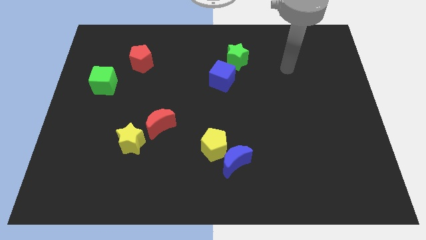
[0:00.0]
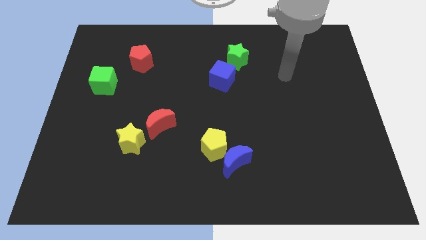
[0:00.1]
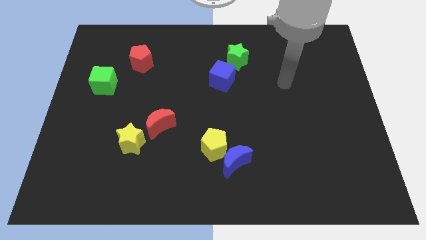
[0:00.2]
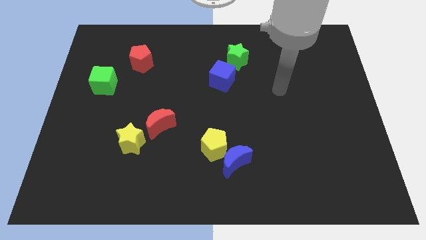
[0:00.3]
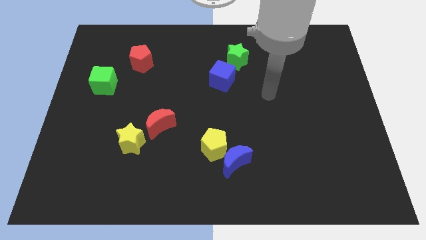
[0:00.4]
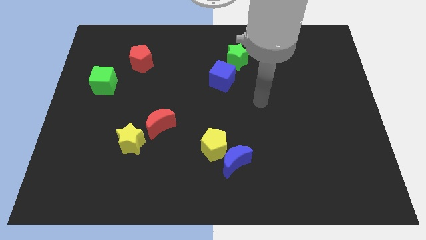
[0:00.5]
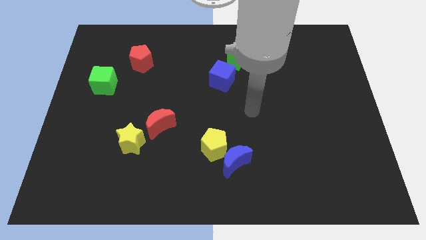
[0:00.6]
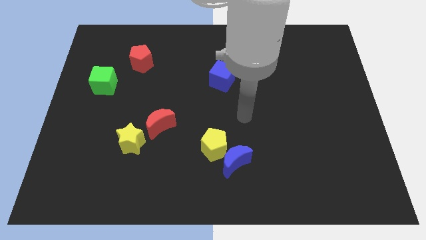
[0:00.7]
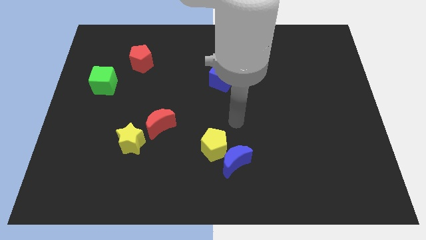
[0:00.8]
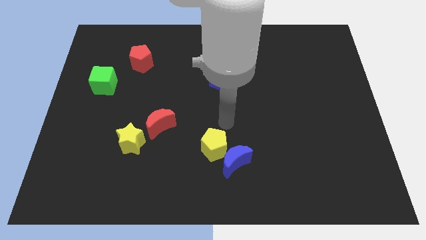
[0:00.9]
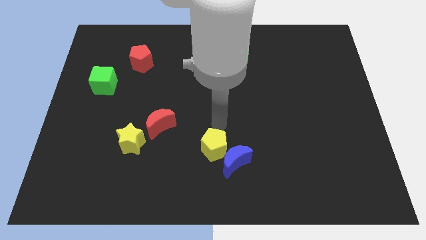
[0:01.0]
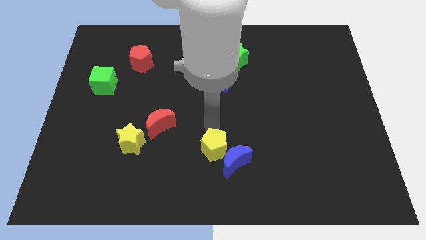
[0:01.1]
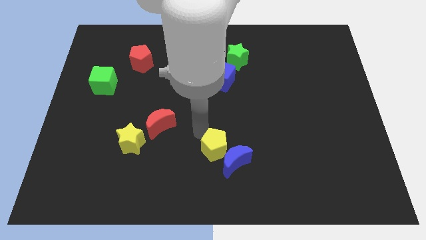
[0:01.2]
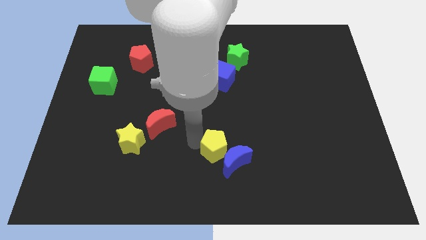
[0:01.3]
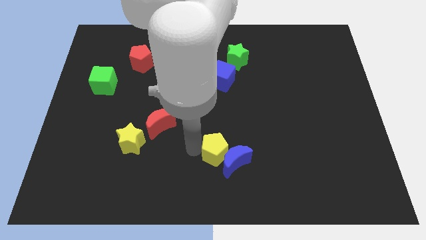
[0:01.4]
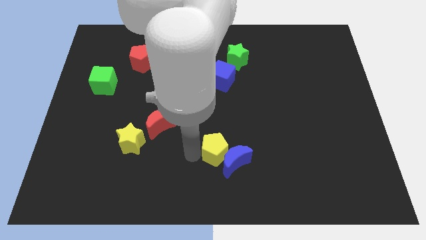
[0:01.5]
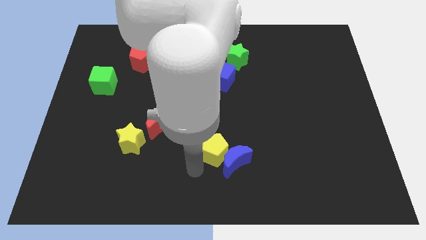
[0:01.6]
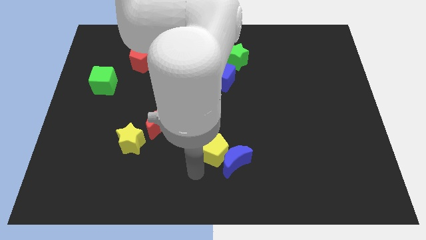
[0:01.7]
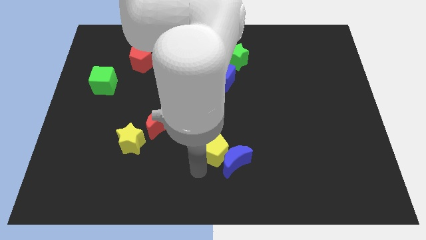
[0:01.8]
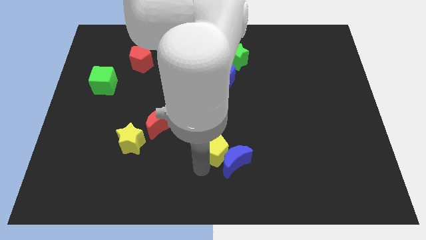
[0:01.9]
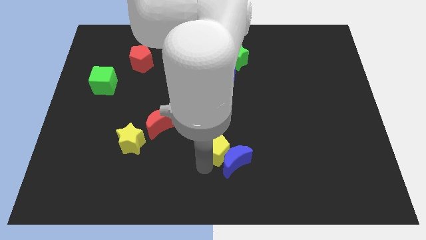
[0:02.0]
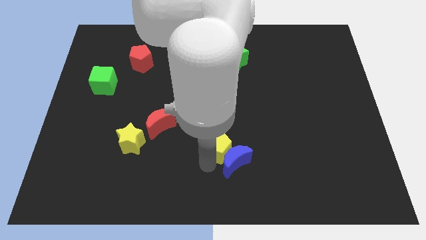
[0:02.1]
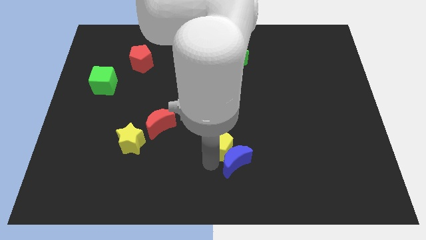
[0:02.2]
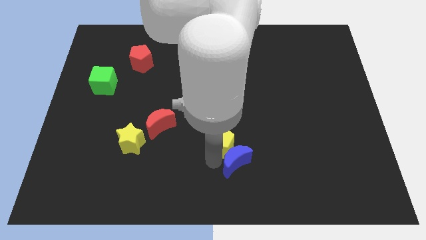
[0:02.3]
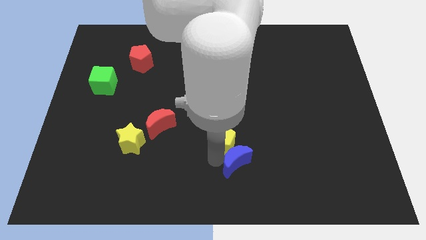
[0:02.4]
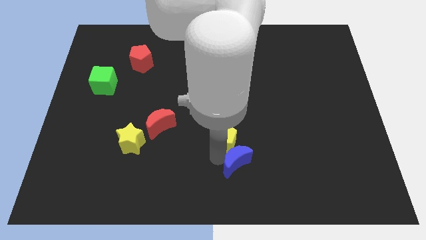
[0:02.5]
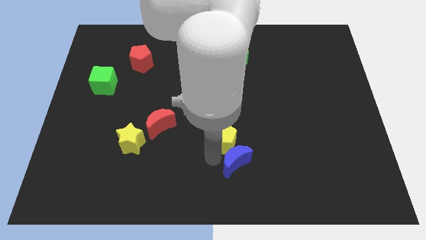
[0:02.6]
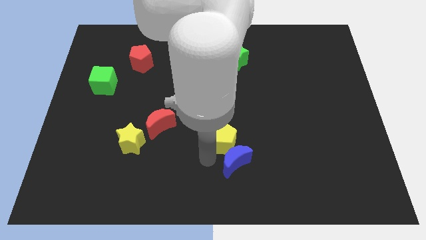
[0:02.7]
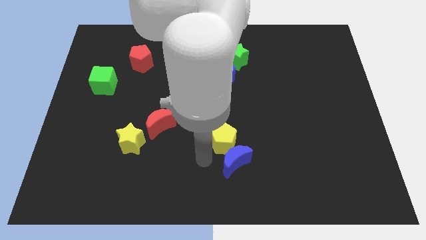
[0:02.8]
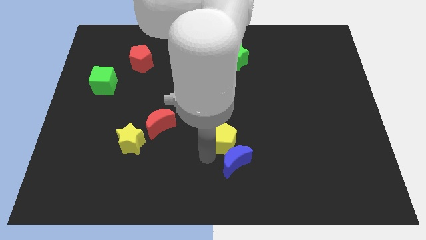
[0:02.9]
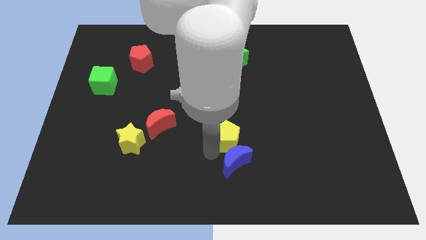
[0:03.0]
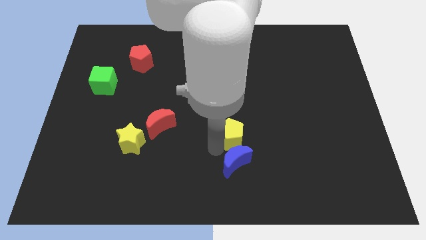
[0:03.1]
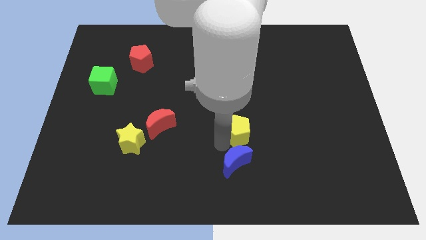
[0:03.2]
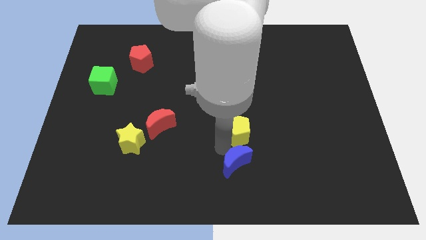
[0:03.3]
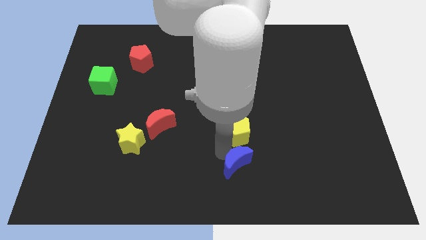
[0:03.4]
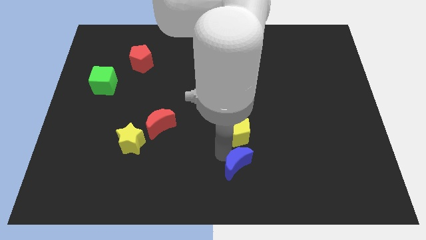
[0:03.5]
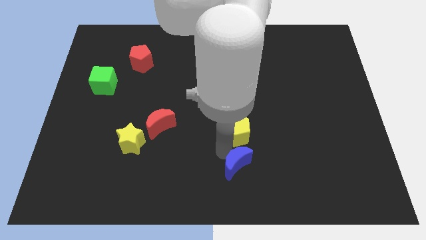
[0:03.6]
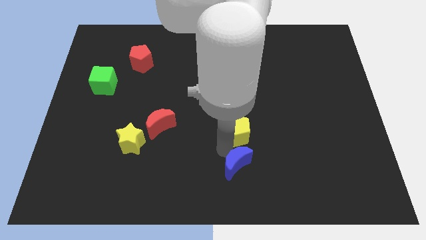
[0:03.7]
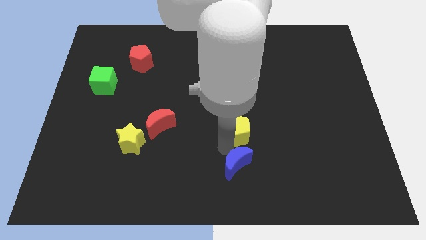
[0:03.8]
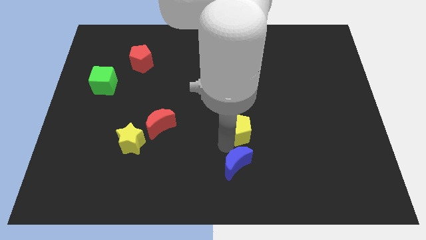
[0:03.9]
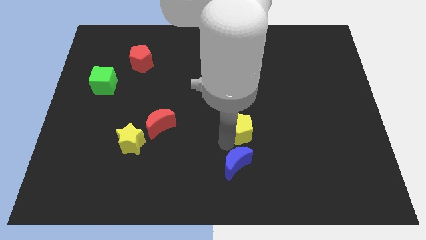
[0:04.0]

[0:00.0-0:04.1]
slightly push the yellow pentagon diagonally upwards and right

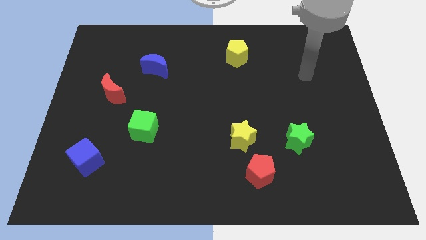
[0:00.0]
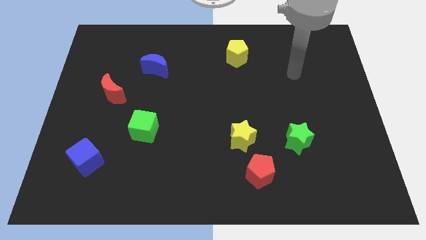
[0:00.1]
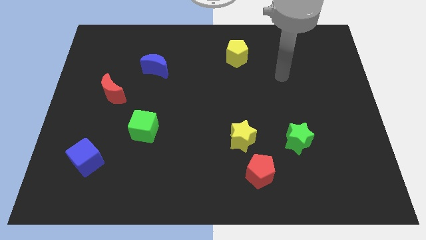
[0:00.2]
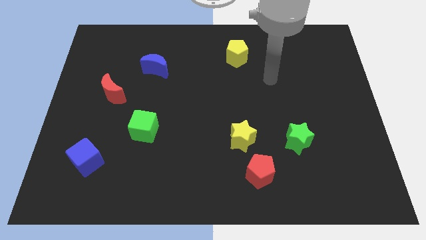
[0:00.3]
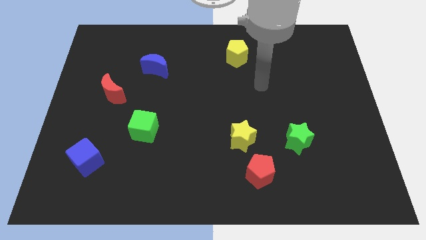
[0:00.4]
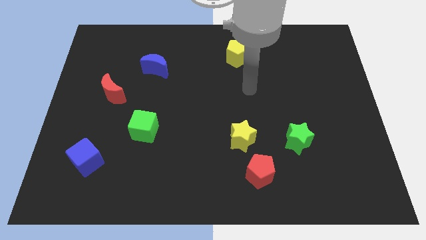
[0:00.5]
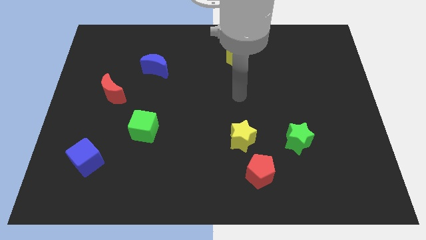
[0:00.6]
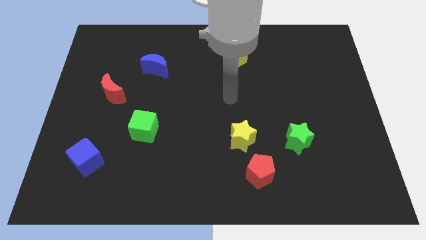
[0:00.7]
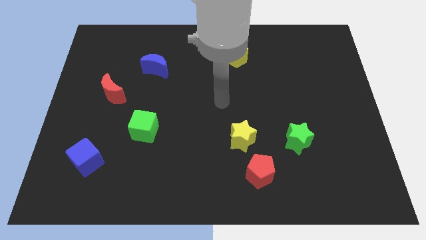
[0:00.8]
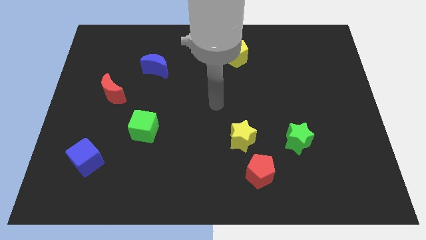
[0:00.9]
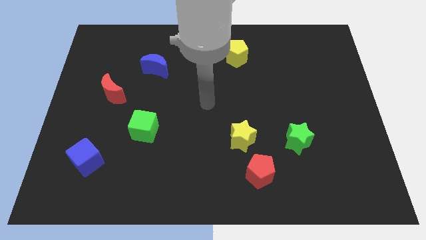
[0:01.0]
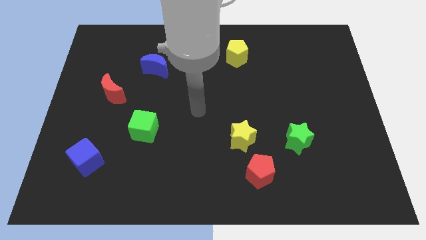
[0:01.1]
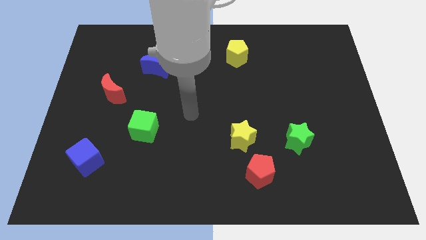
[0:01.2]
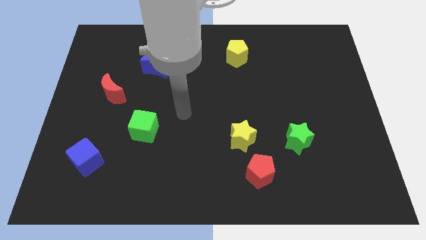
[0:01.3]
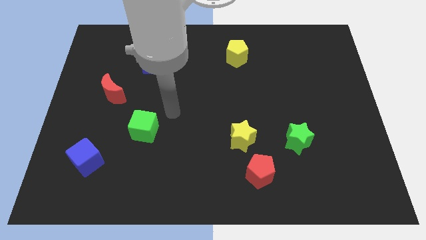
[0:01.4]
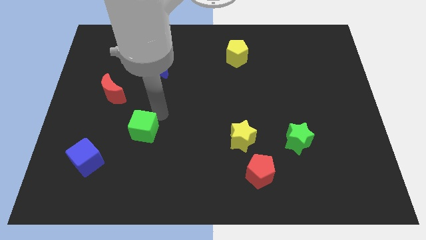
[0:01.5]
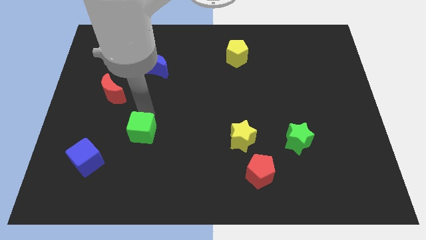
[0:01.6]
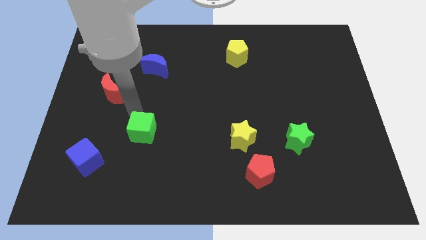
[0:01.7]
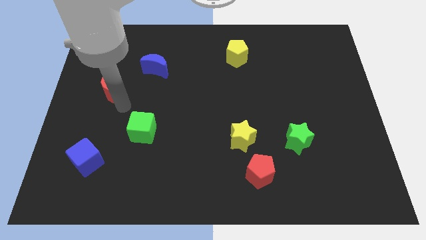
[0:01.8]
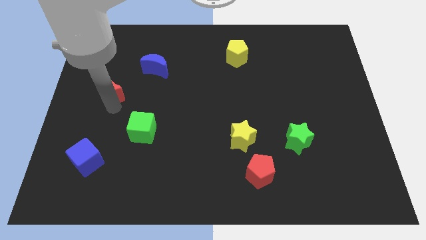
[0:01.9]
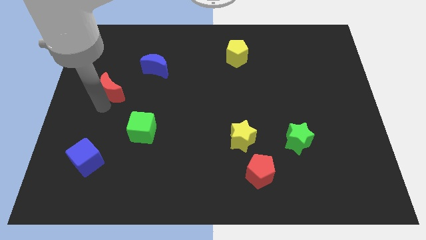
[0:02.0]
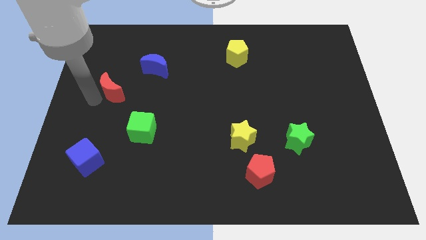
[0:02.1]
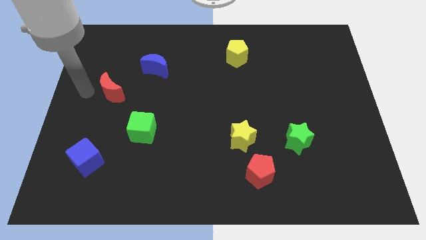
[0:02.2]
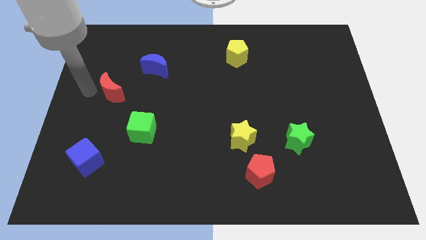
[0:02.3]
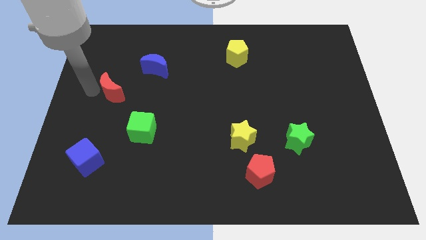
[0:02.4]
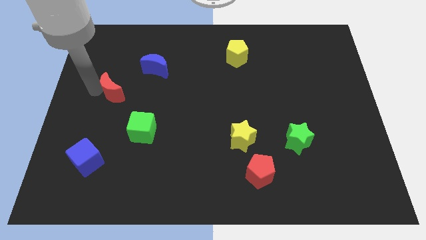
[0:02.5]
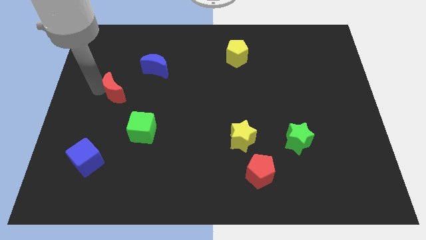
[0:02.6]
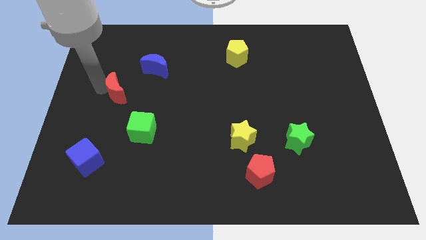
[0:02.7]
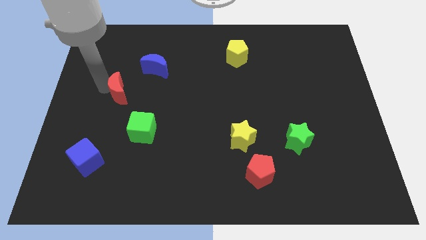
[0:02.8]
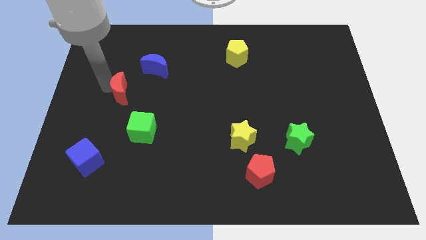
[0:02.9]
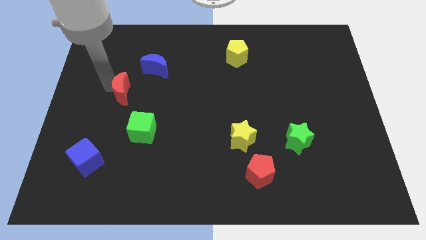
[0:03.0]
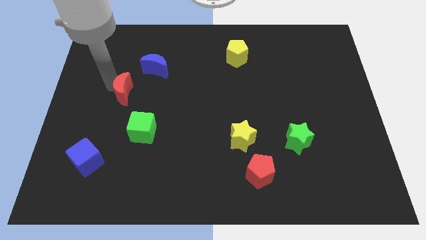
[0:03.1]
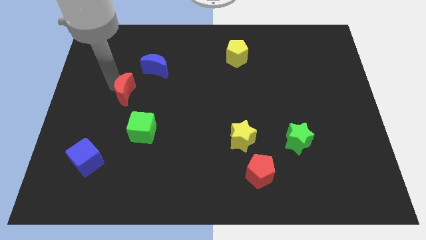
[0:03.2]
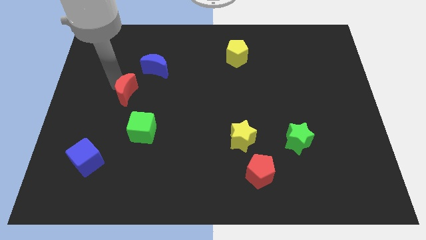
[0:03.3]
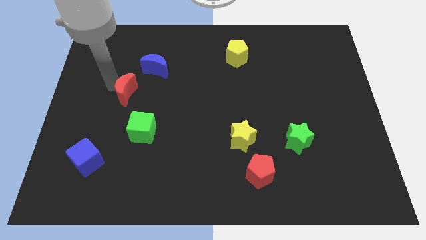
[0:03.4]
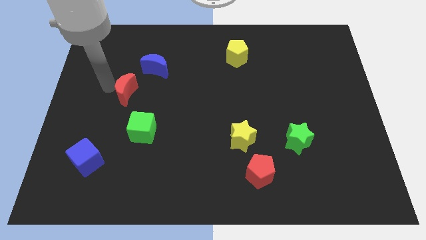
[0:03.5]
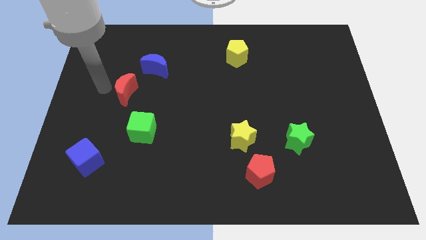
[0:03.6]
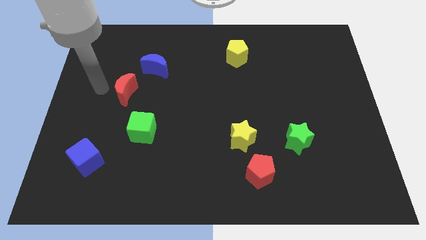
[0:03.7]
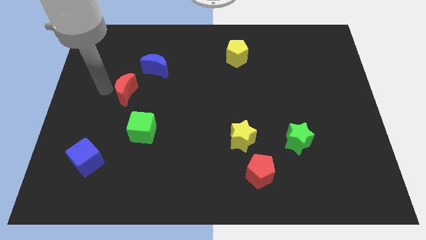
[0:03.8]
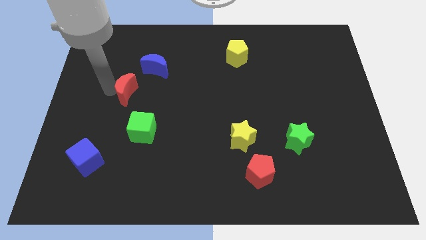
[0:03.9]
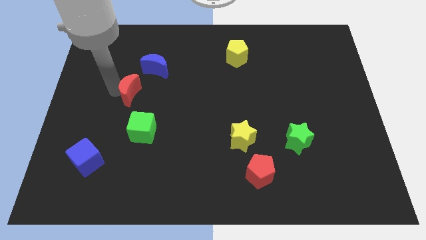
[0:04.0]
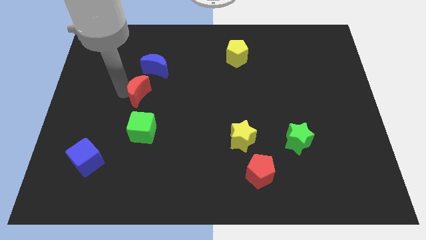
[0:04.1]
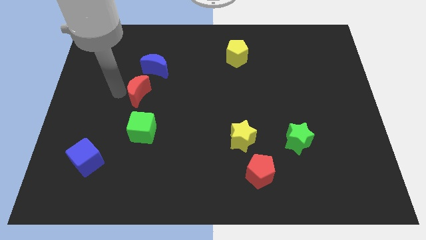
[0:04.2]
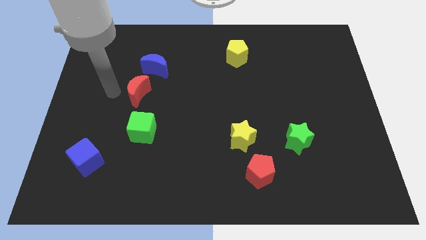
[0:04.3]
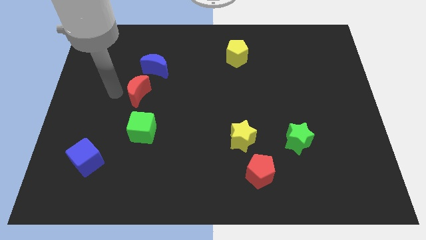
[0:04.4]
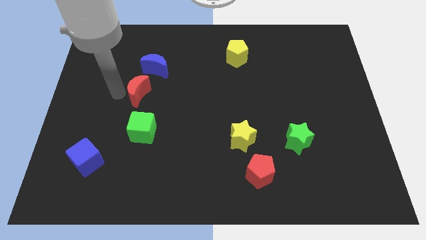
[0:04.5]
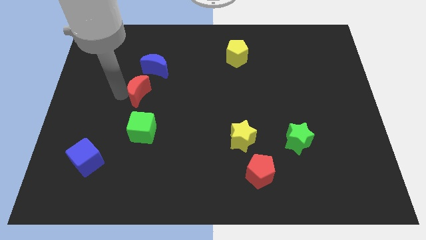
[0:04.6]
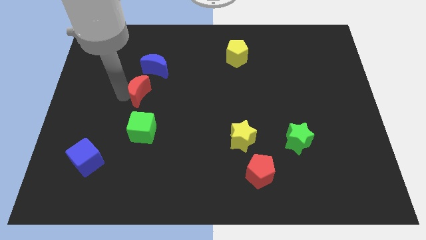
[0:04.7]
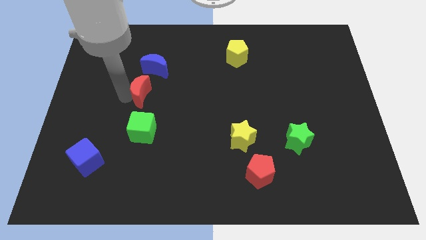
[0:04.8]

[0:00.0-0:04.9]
move the red moon a bit right
